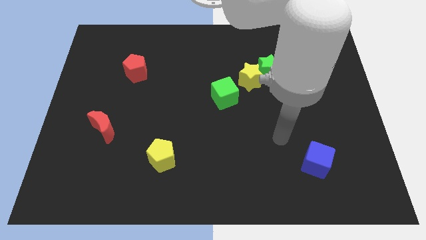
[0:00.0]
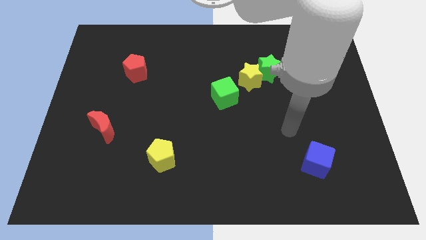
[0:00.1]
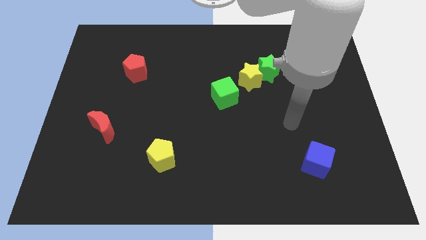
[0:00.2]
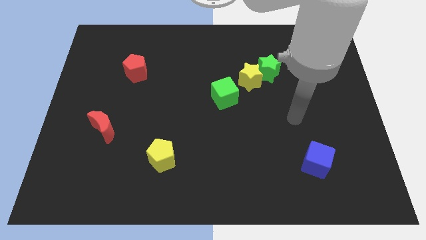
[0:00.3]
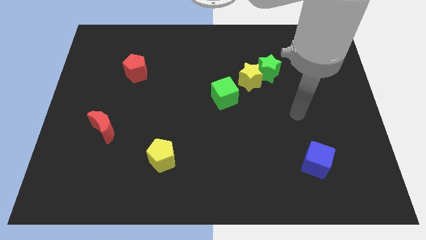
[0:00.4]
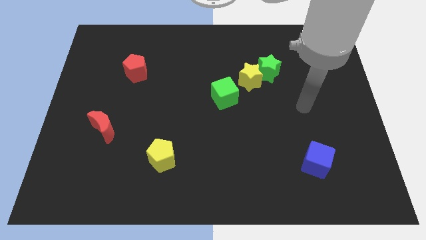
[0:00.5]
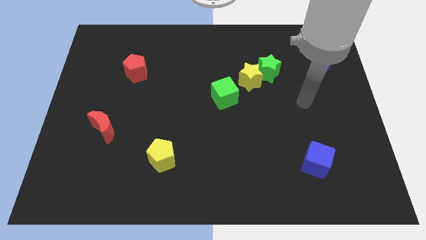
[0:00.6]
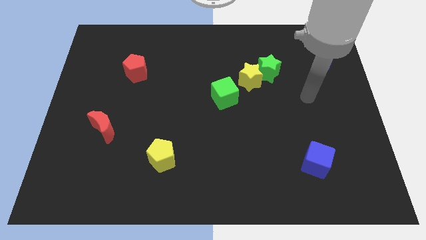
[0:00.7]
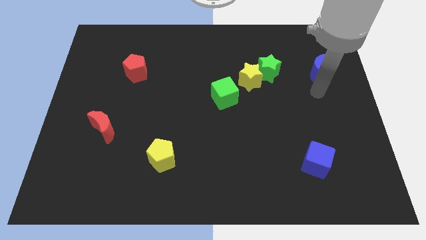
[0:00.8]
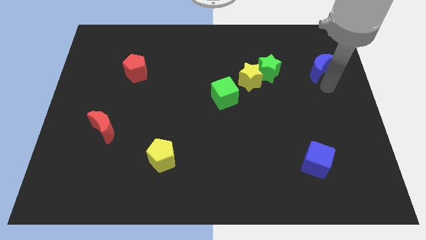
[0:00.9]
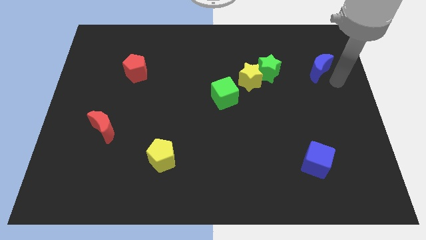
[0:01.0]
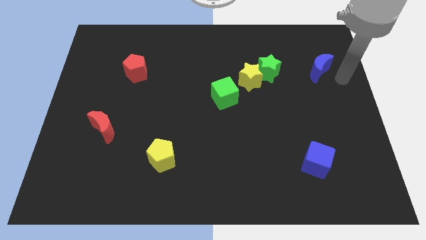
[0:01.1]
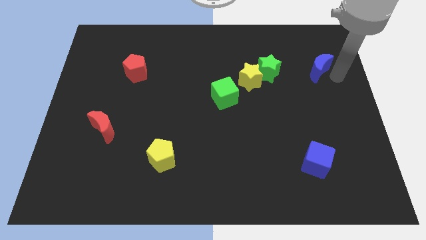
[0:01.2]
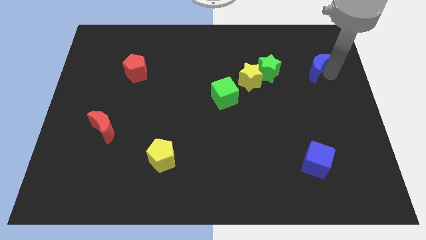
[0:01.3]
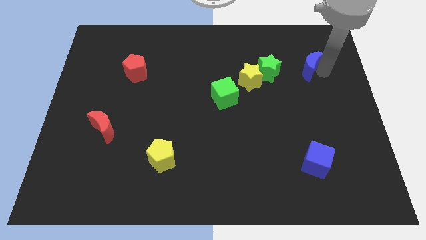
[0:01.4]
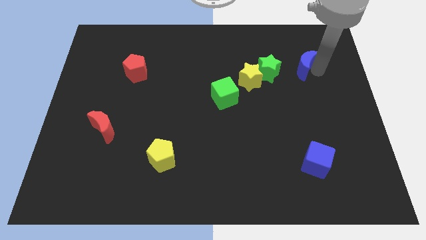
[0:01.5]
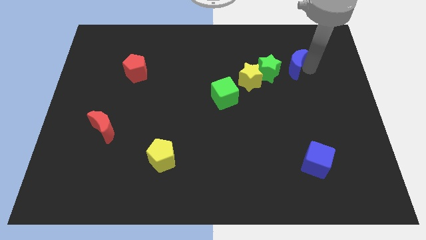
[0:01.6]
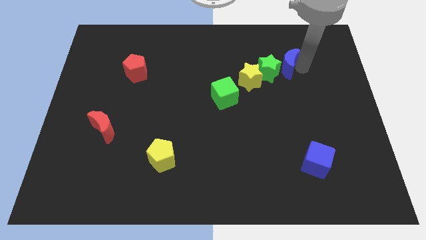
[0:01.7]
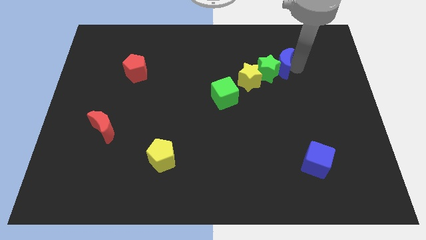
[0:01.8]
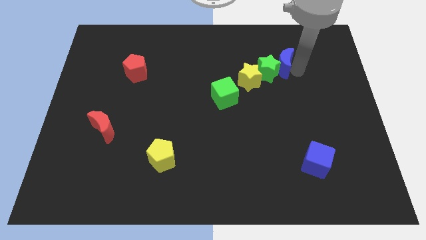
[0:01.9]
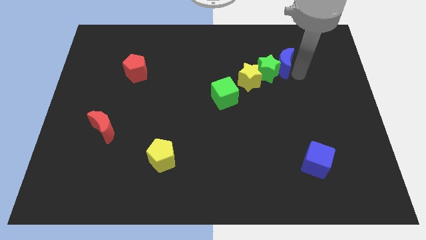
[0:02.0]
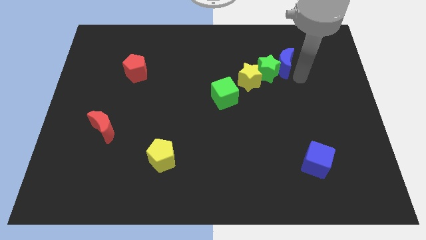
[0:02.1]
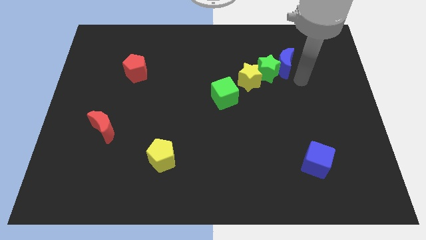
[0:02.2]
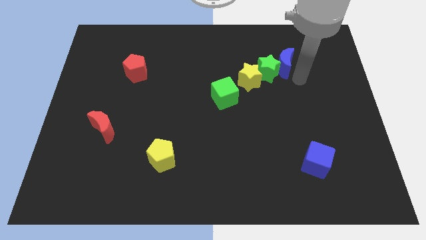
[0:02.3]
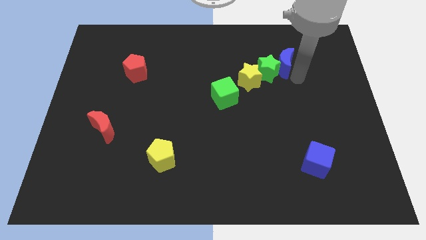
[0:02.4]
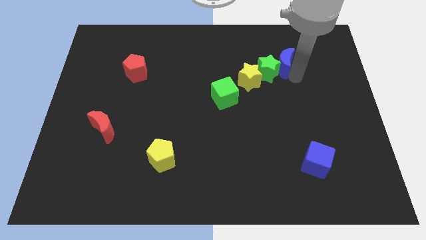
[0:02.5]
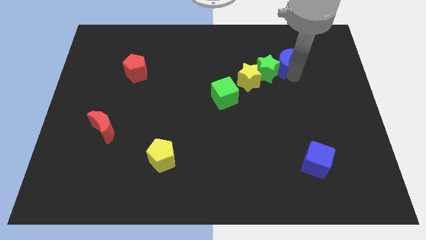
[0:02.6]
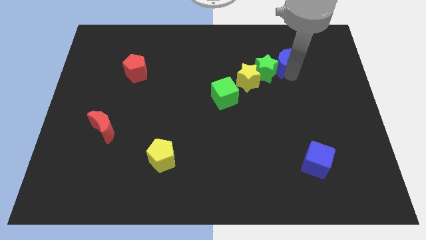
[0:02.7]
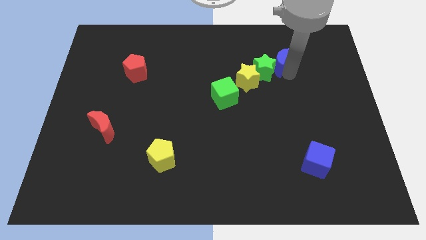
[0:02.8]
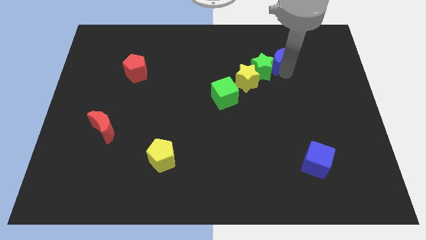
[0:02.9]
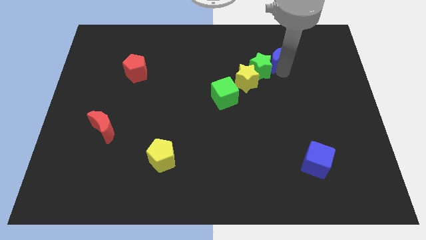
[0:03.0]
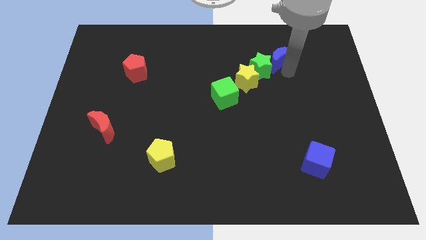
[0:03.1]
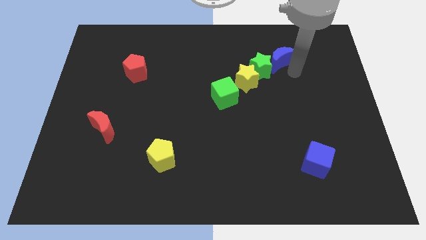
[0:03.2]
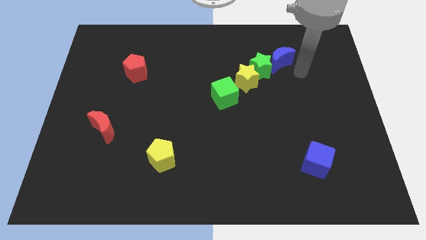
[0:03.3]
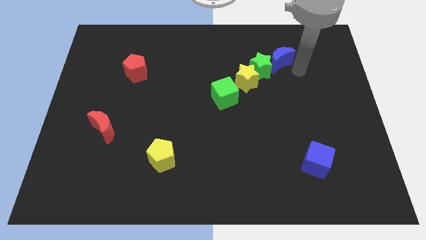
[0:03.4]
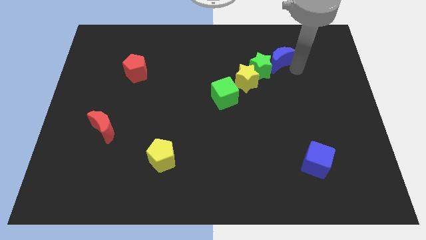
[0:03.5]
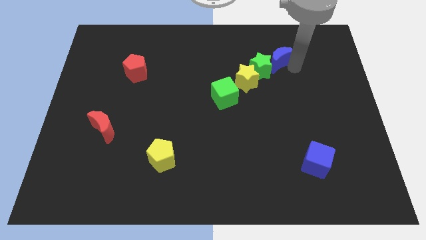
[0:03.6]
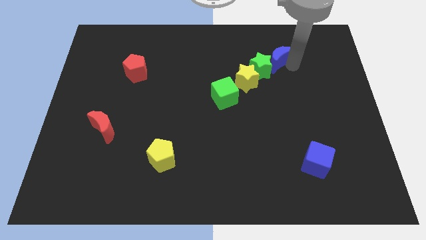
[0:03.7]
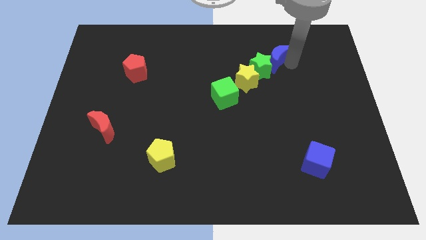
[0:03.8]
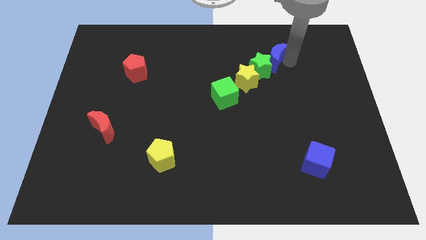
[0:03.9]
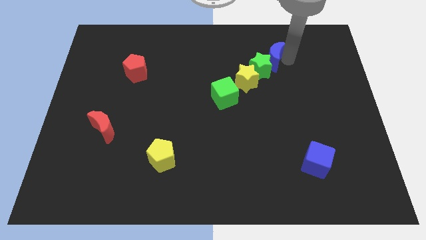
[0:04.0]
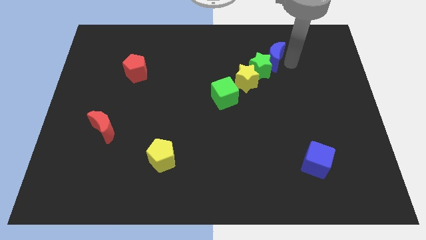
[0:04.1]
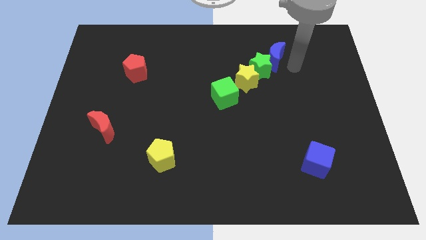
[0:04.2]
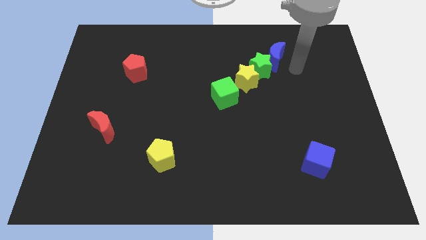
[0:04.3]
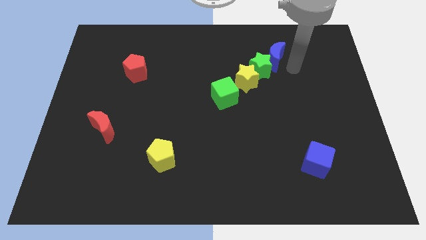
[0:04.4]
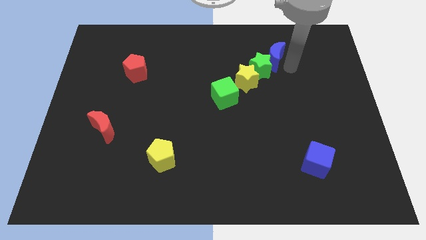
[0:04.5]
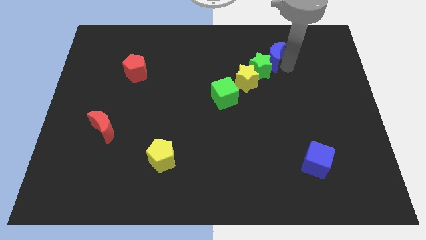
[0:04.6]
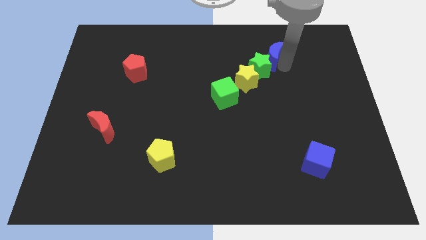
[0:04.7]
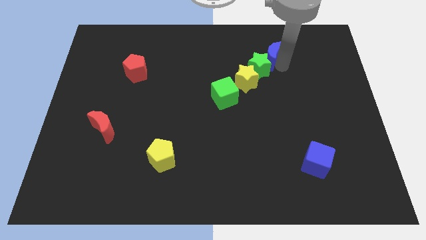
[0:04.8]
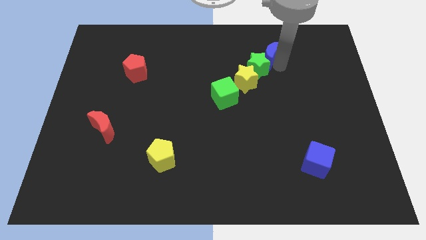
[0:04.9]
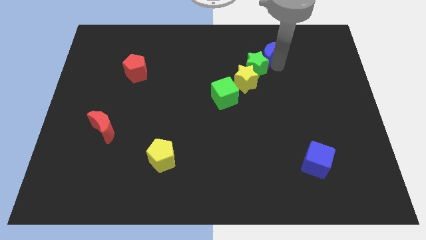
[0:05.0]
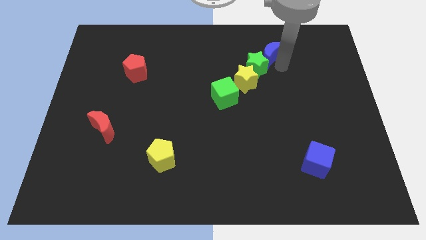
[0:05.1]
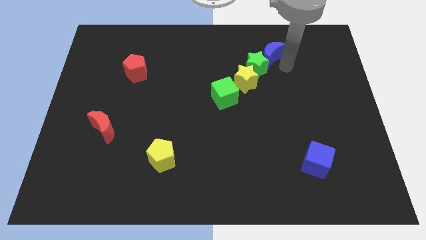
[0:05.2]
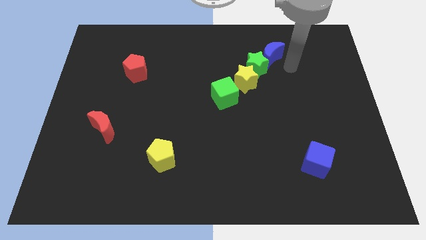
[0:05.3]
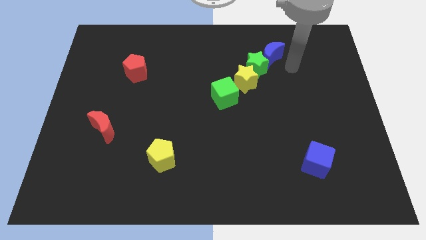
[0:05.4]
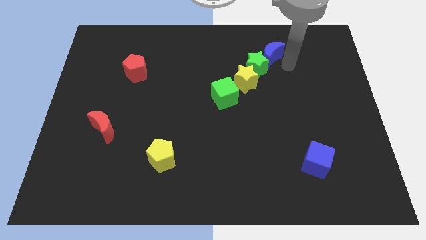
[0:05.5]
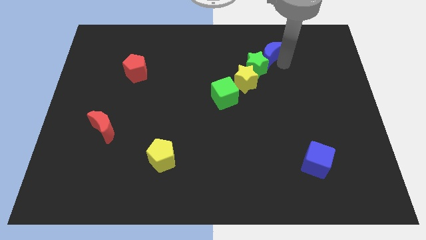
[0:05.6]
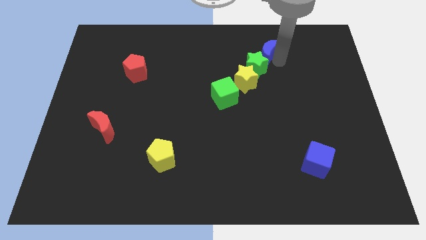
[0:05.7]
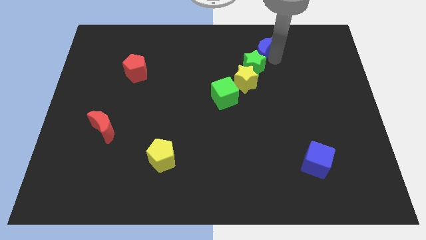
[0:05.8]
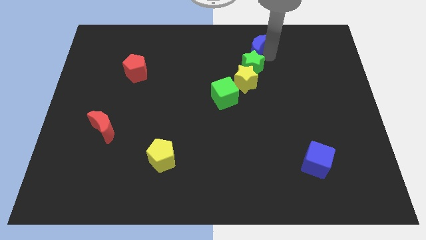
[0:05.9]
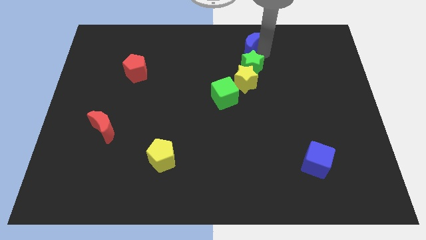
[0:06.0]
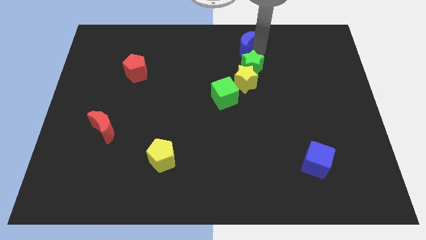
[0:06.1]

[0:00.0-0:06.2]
move the blue moon to the top
